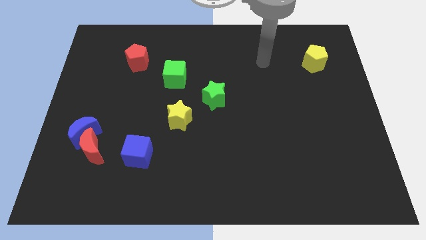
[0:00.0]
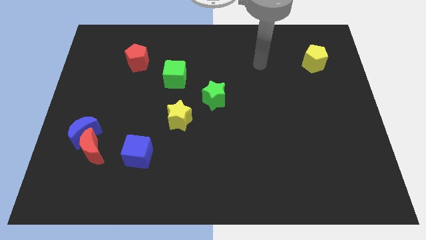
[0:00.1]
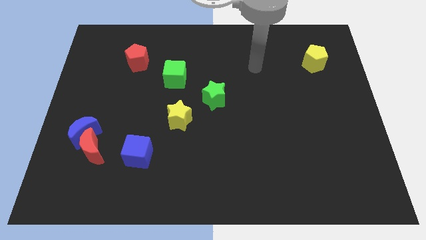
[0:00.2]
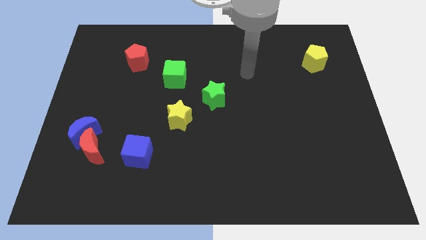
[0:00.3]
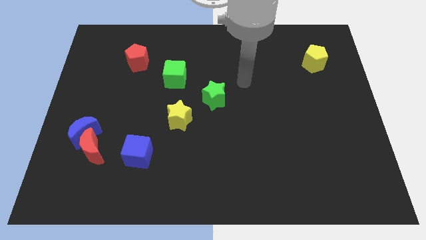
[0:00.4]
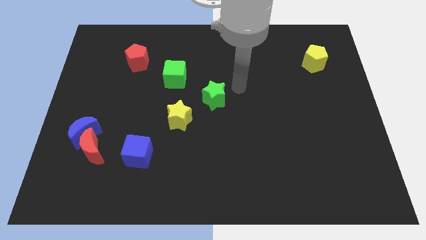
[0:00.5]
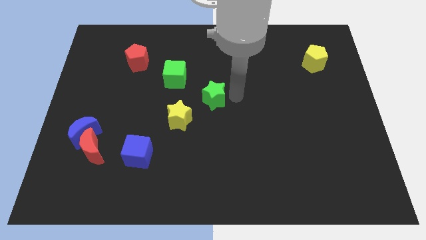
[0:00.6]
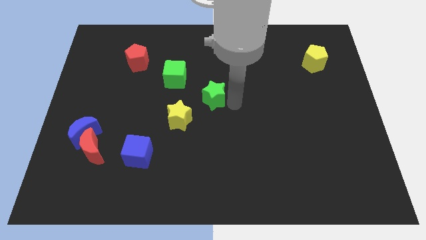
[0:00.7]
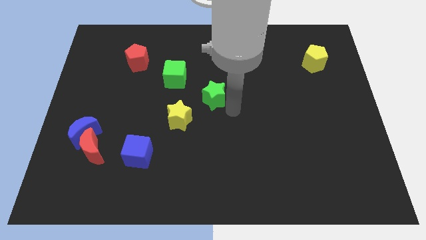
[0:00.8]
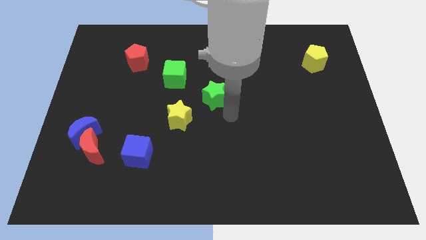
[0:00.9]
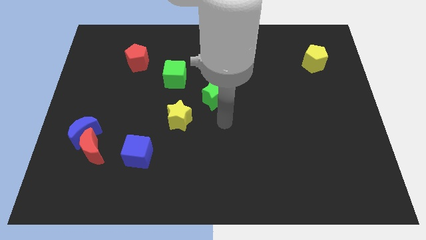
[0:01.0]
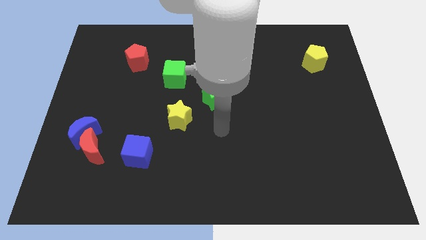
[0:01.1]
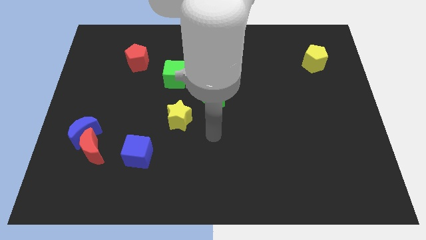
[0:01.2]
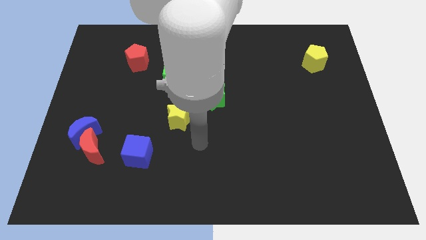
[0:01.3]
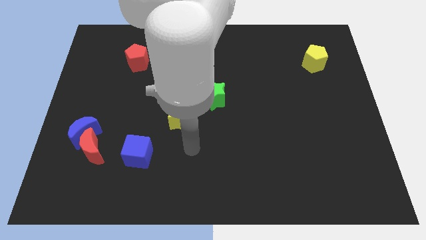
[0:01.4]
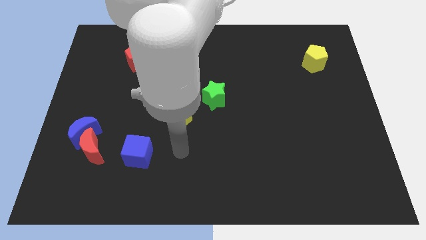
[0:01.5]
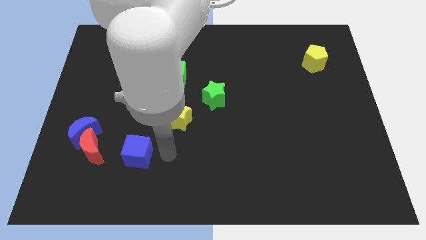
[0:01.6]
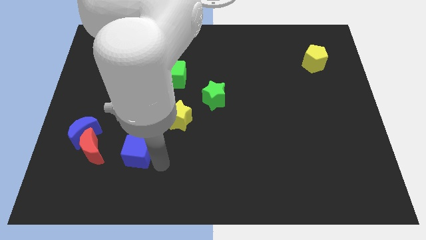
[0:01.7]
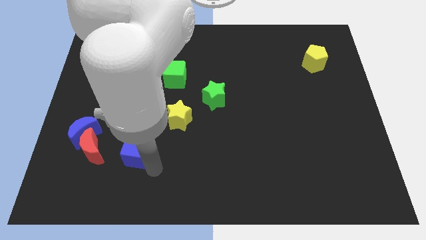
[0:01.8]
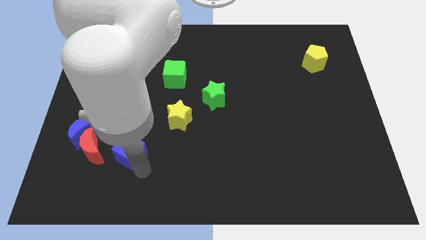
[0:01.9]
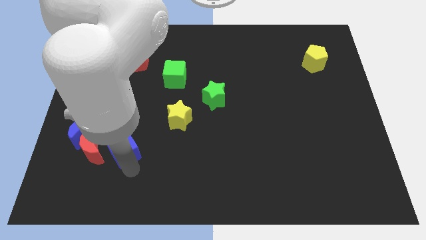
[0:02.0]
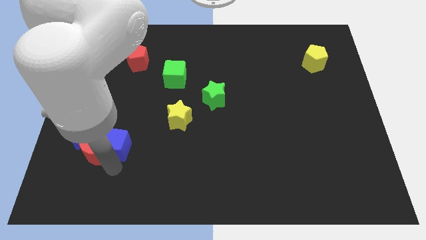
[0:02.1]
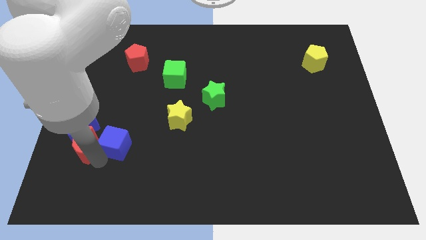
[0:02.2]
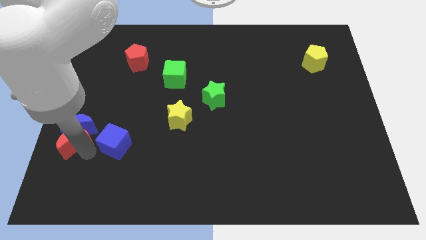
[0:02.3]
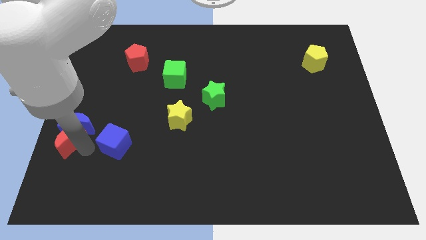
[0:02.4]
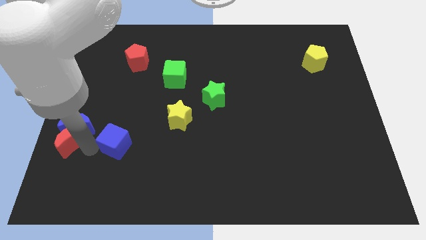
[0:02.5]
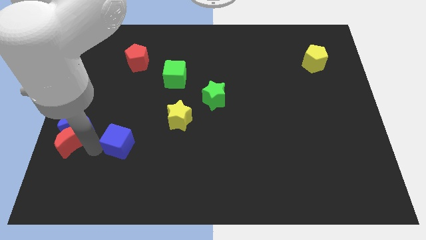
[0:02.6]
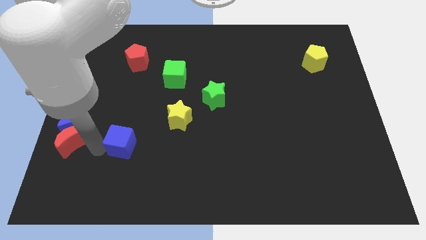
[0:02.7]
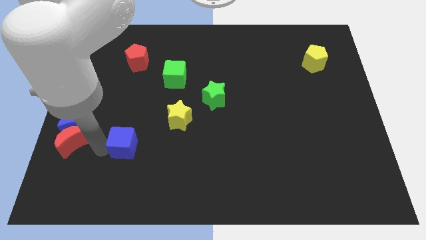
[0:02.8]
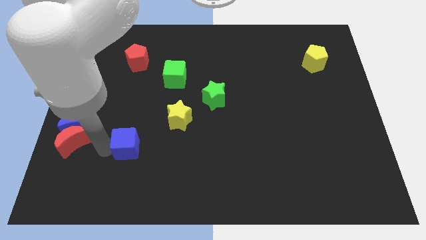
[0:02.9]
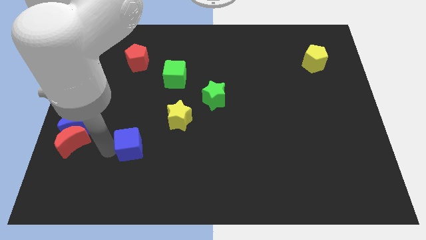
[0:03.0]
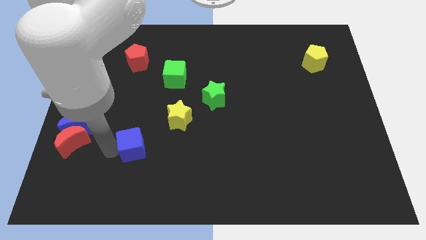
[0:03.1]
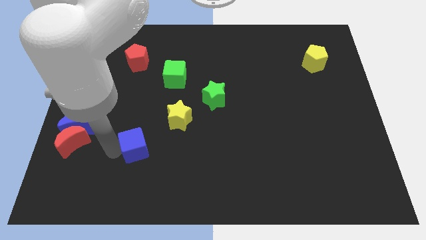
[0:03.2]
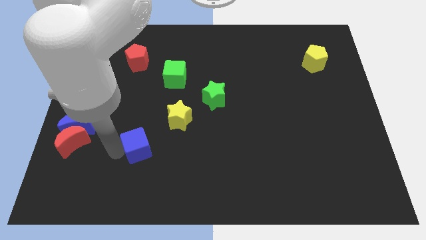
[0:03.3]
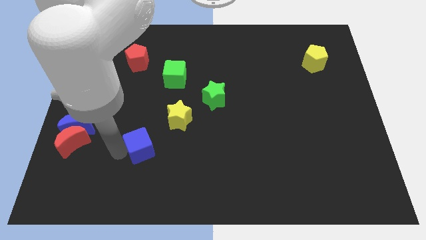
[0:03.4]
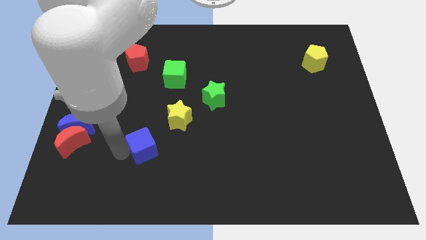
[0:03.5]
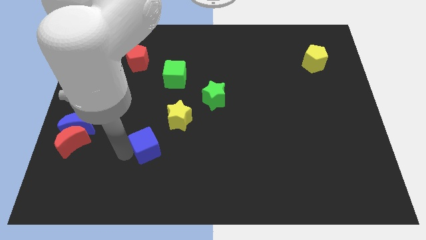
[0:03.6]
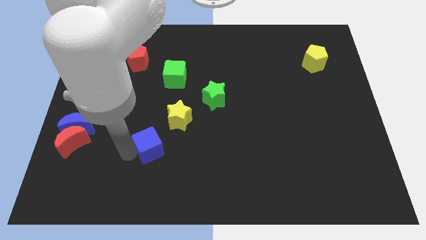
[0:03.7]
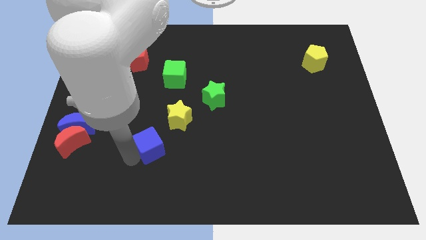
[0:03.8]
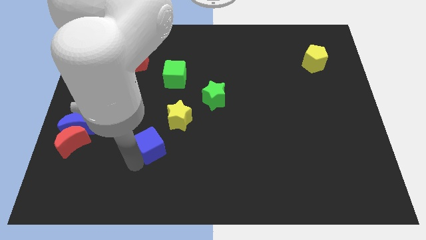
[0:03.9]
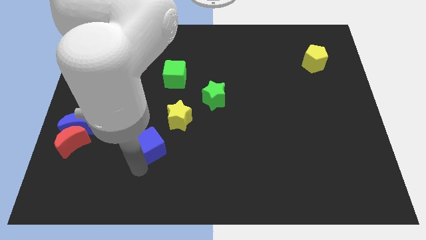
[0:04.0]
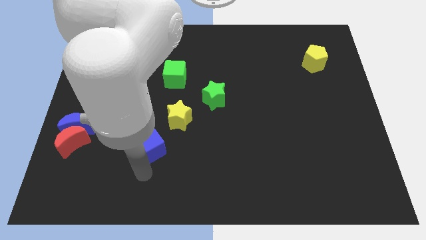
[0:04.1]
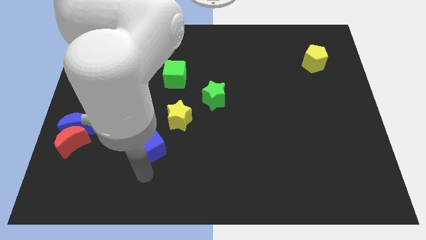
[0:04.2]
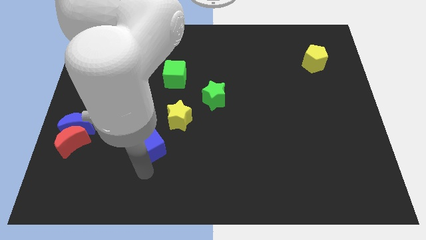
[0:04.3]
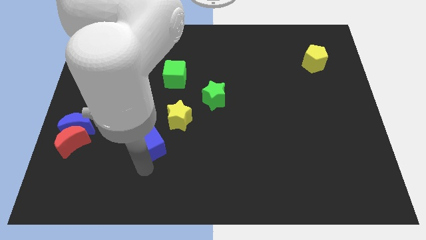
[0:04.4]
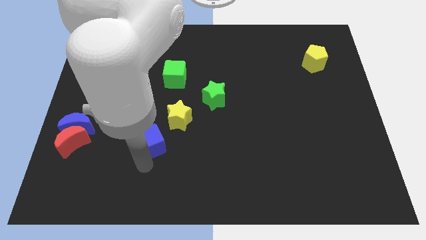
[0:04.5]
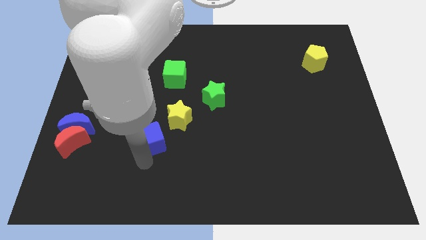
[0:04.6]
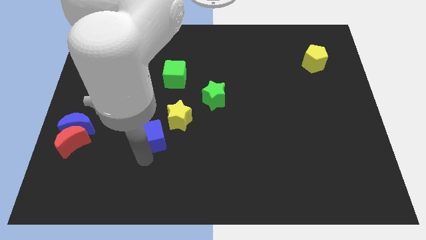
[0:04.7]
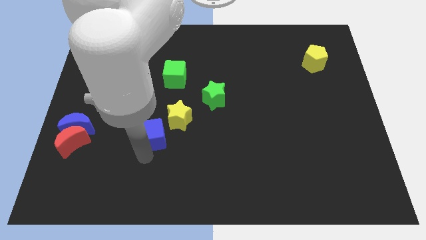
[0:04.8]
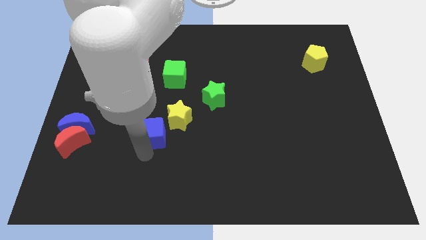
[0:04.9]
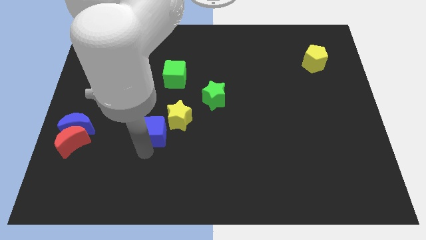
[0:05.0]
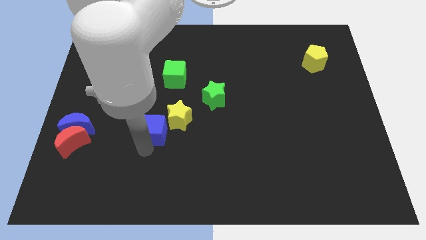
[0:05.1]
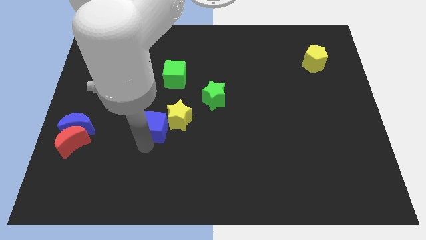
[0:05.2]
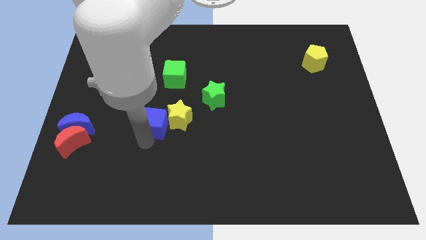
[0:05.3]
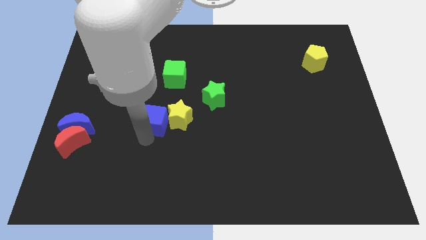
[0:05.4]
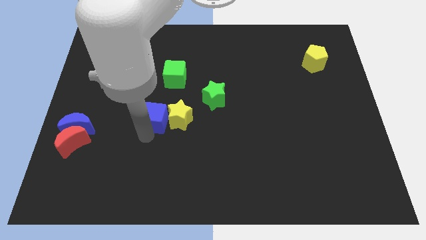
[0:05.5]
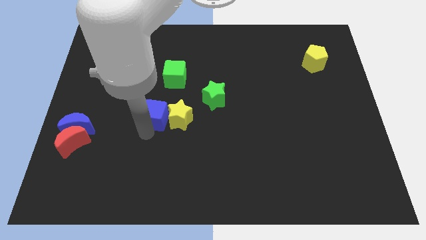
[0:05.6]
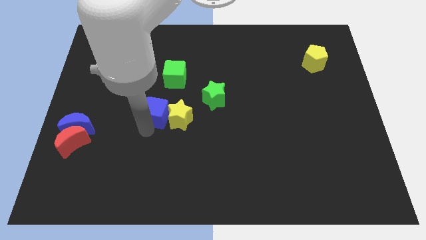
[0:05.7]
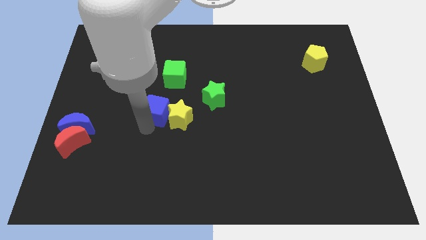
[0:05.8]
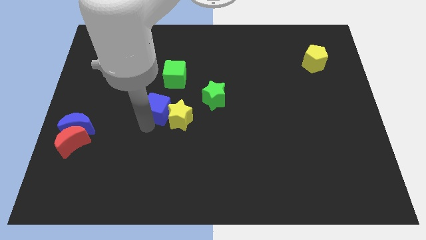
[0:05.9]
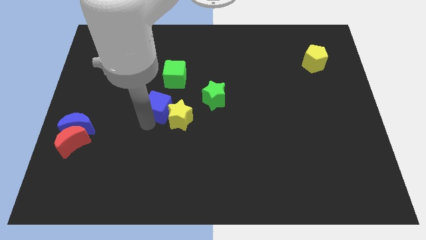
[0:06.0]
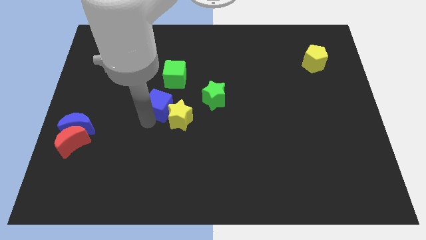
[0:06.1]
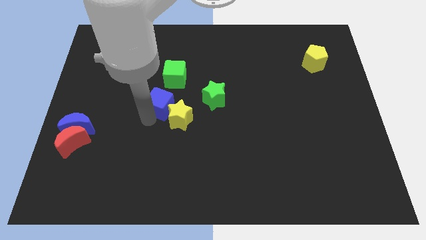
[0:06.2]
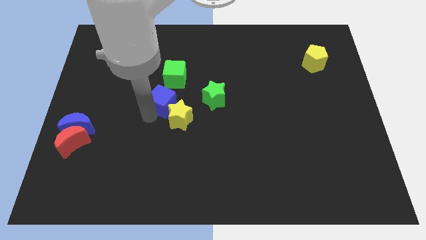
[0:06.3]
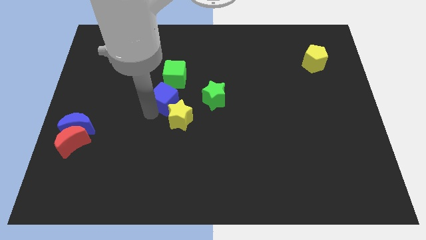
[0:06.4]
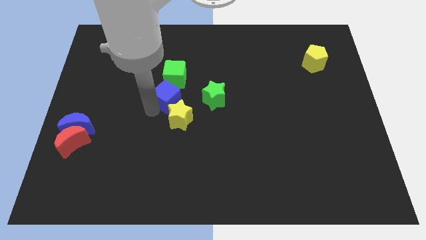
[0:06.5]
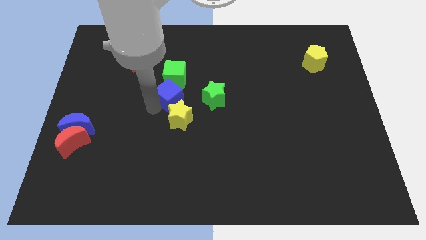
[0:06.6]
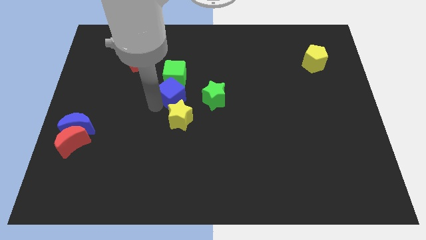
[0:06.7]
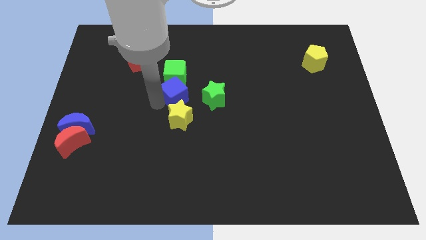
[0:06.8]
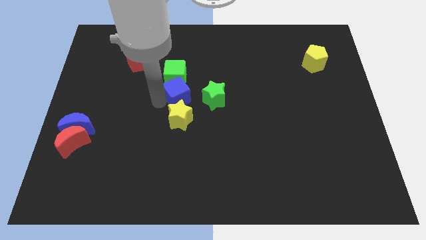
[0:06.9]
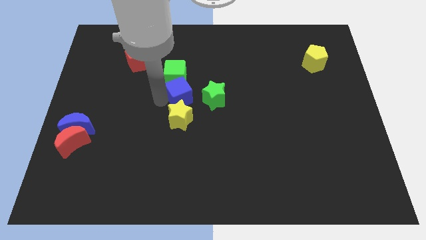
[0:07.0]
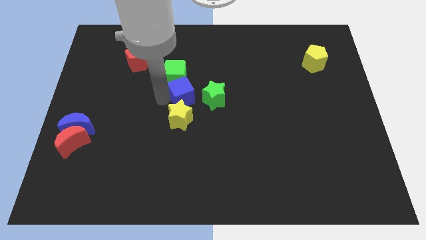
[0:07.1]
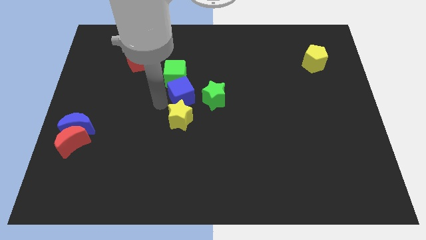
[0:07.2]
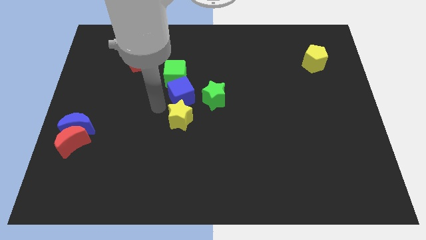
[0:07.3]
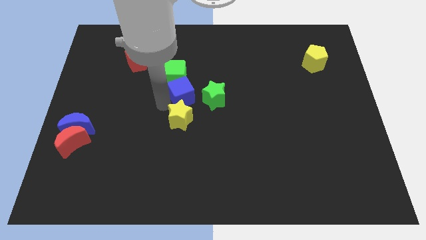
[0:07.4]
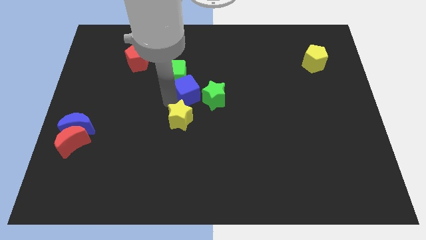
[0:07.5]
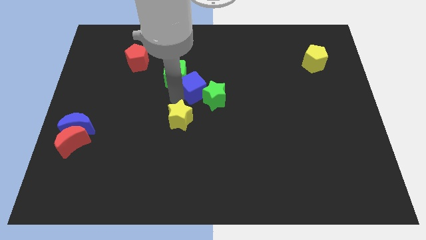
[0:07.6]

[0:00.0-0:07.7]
move the blue cube upwards and to the right diagonally
